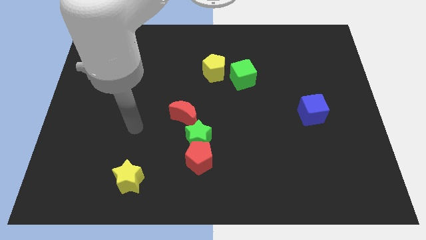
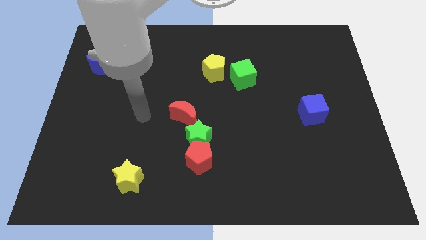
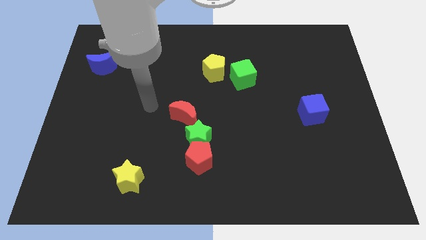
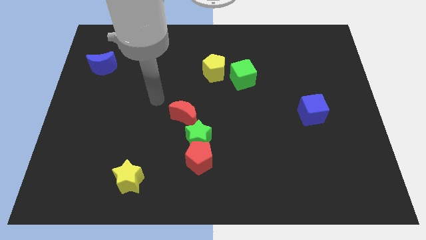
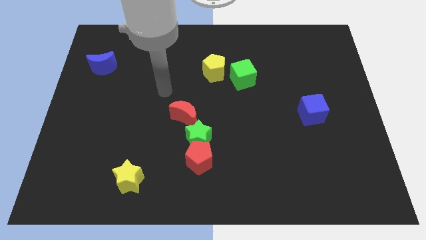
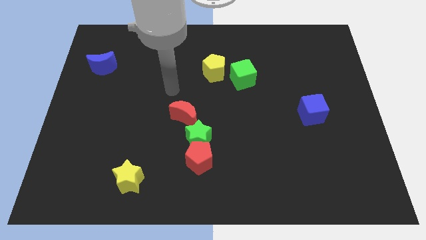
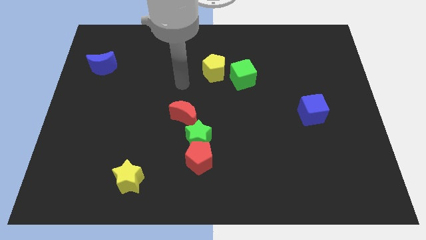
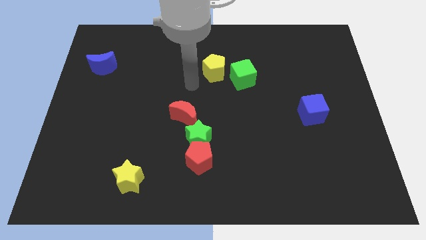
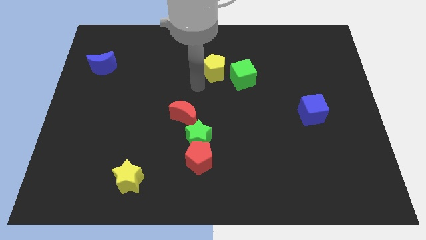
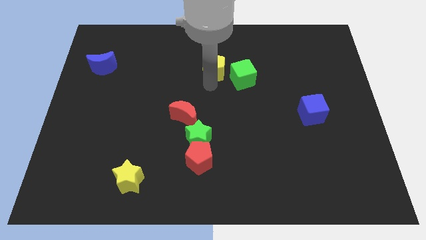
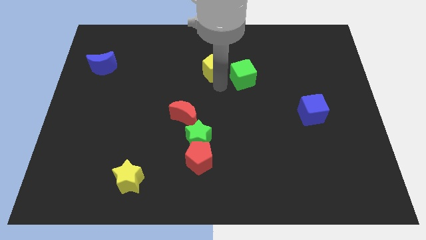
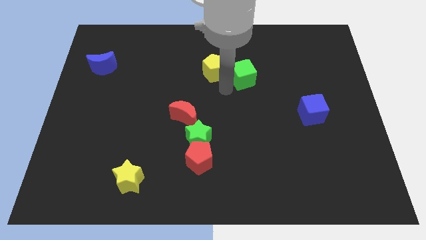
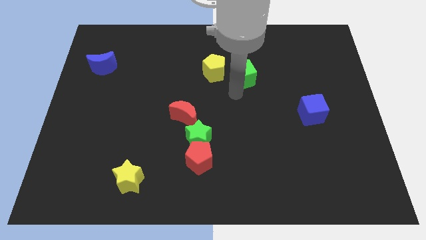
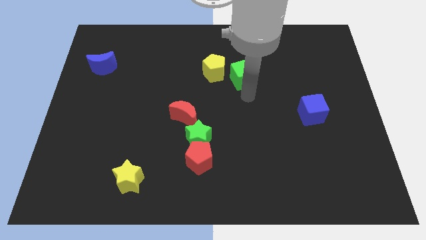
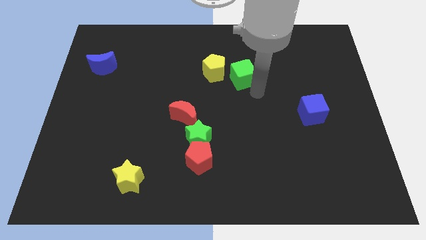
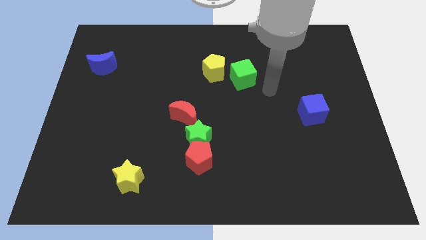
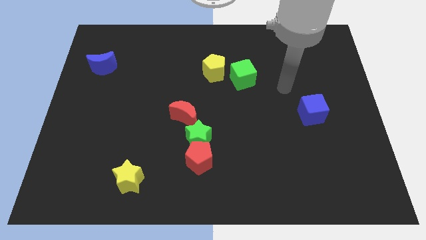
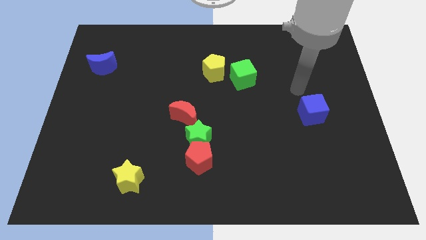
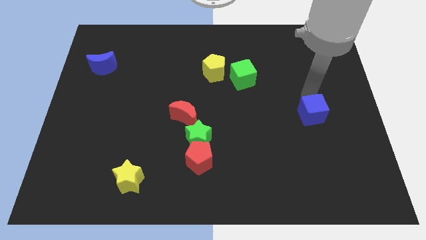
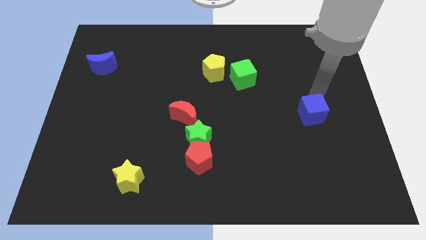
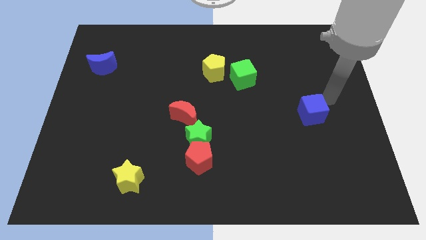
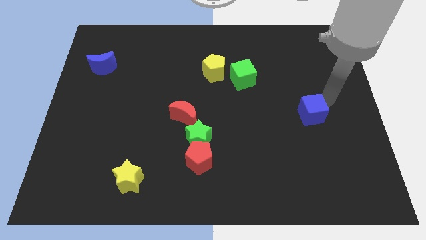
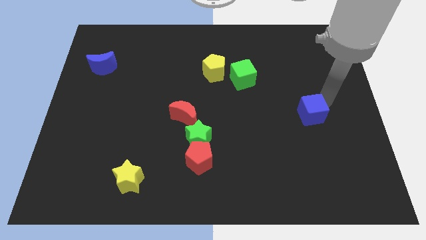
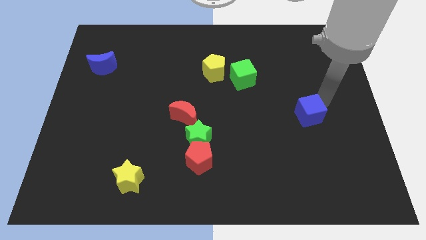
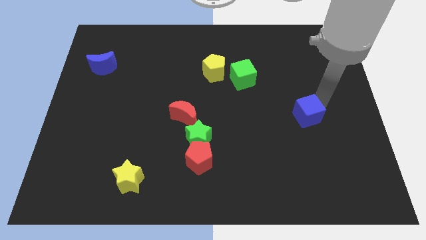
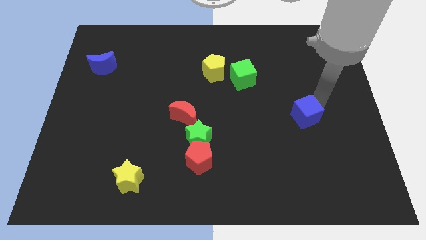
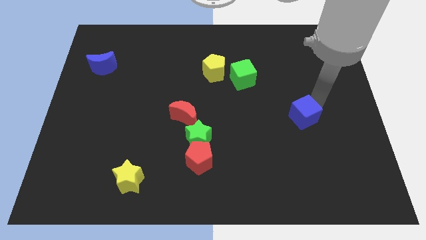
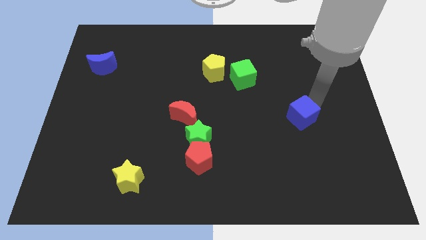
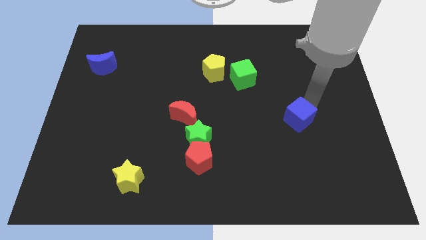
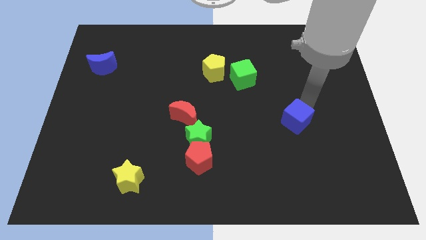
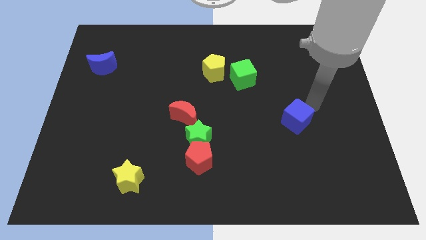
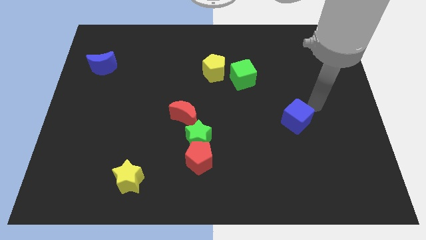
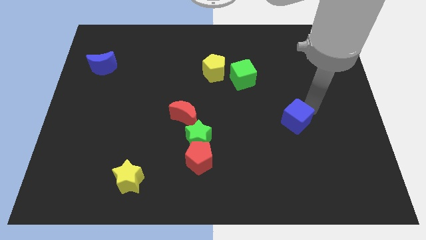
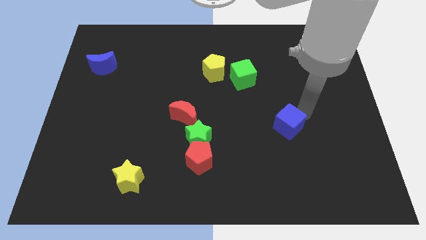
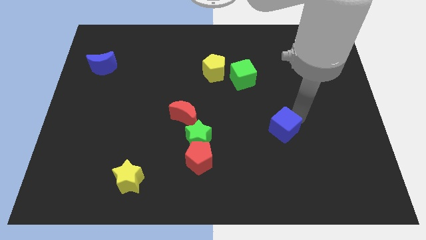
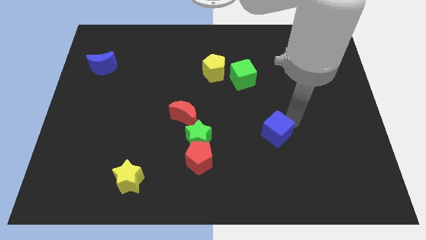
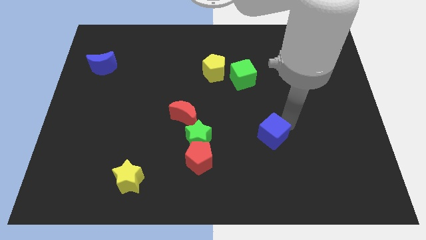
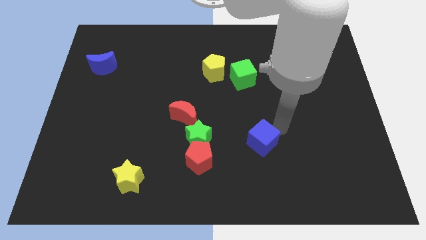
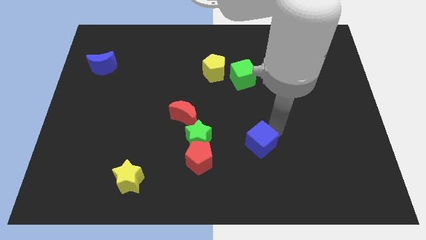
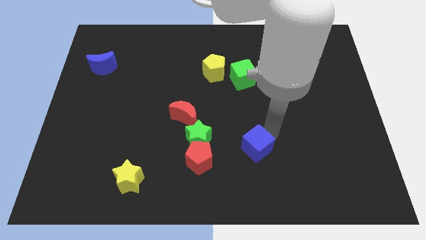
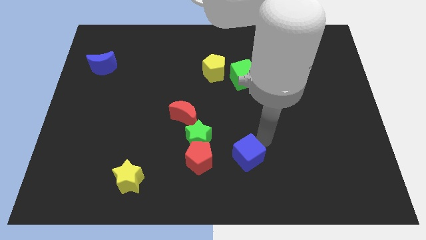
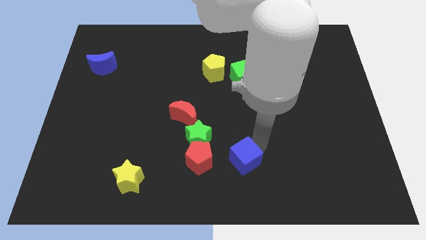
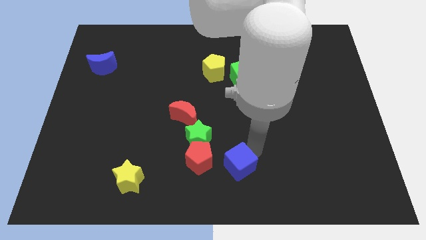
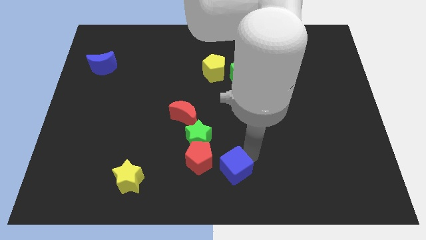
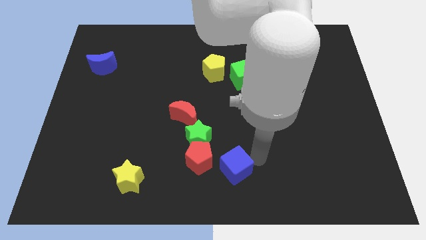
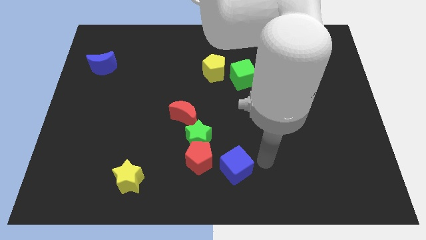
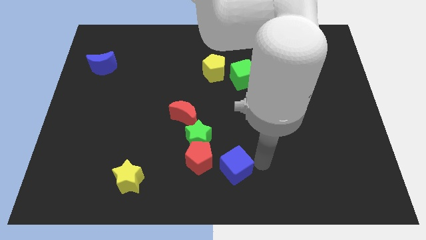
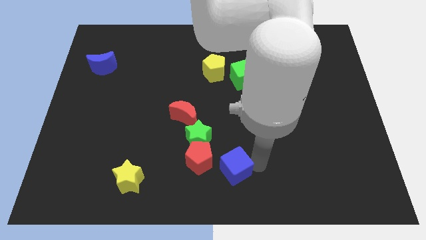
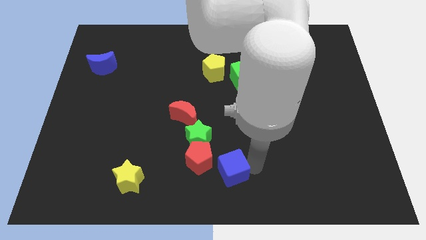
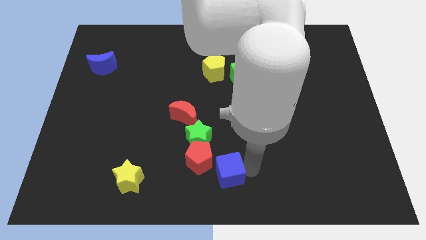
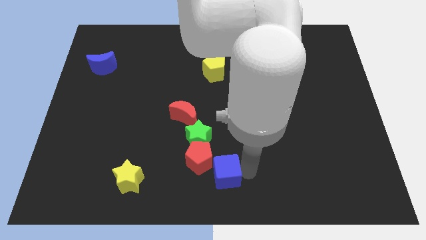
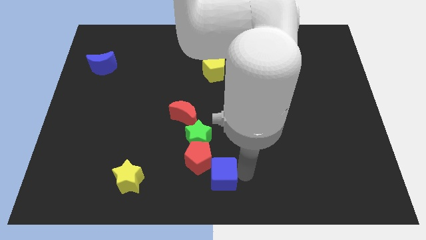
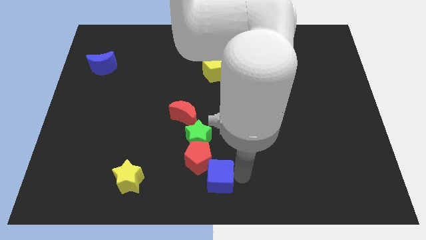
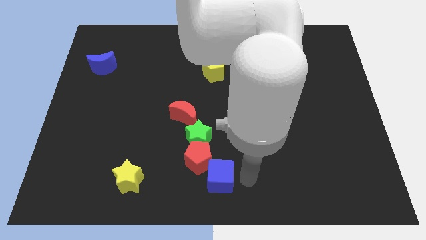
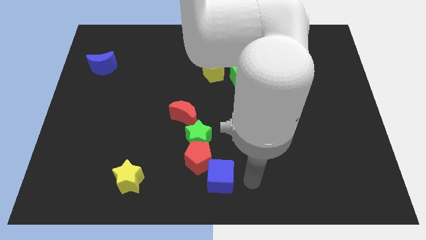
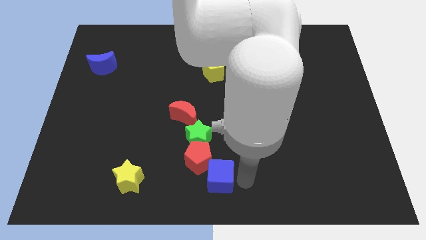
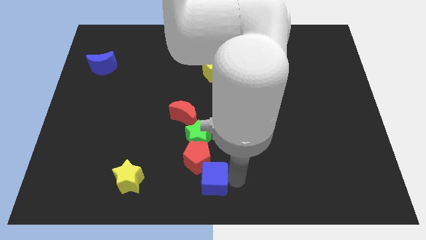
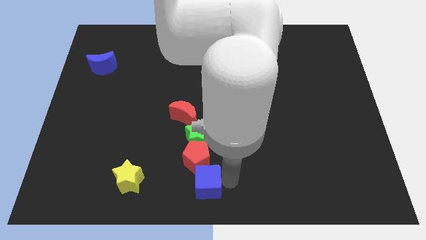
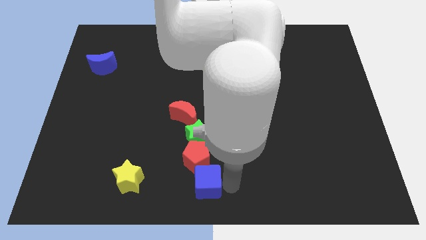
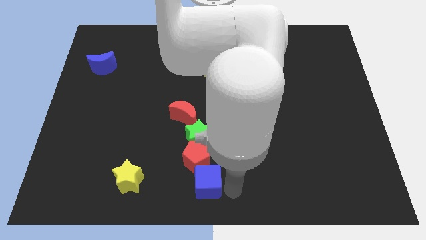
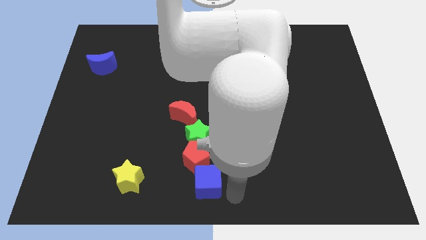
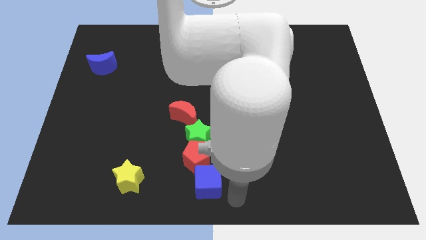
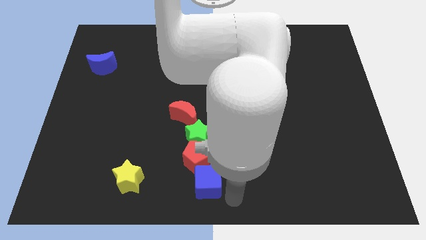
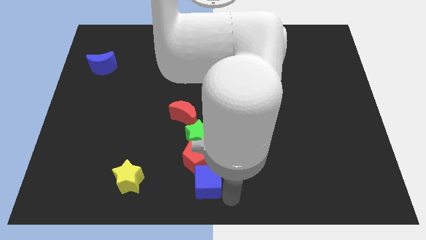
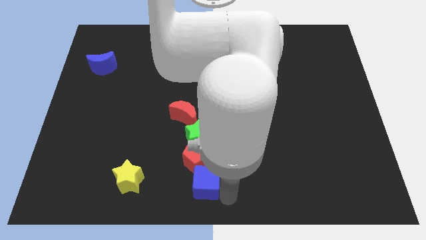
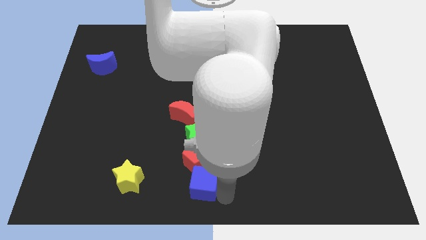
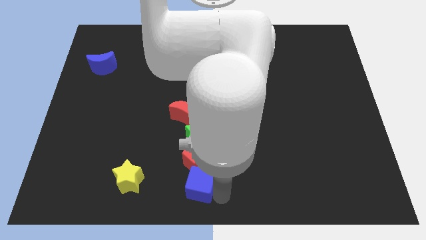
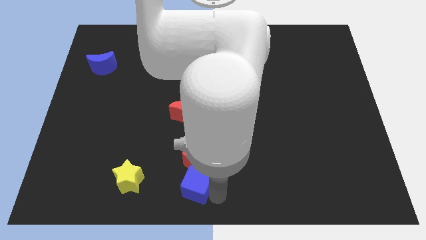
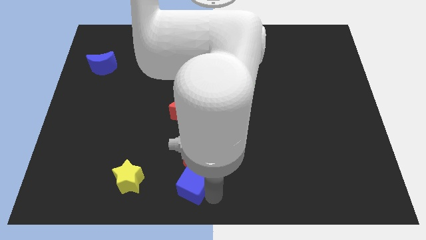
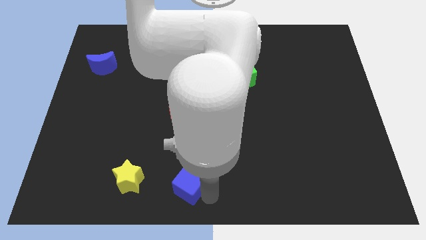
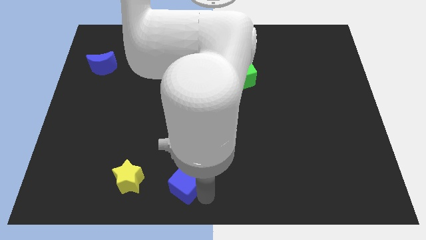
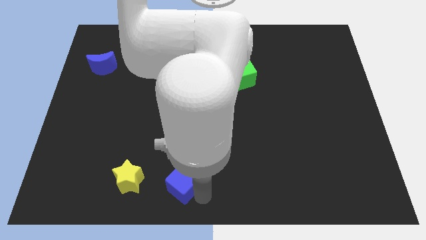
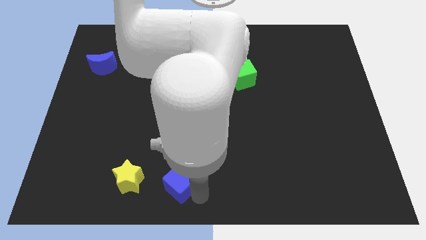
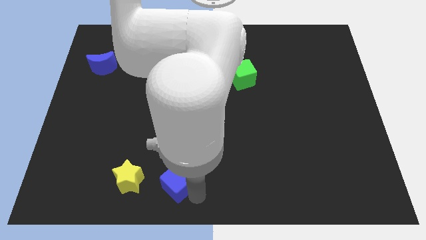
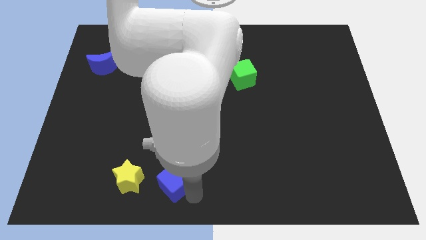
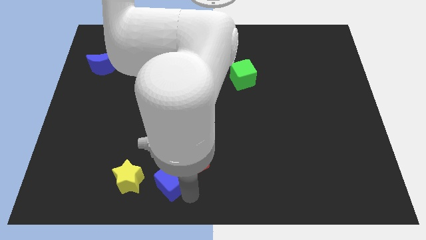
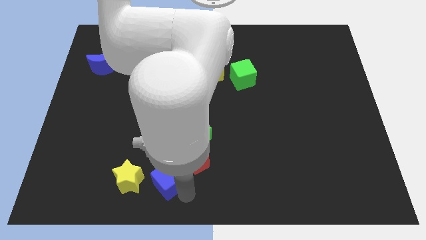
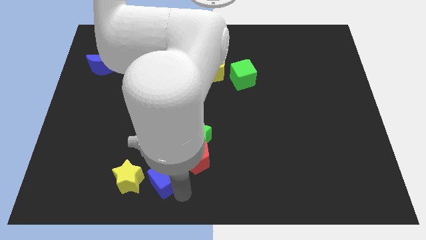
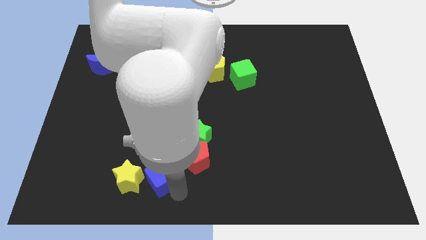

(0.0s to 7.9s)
put the blue cube diagonally up and to the right of the yellow star
